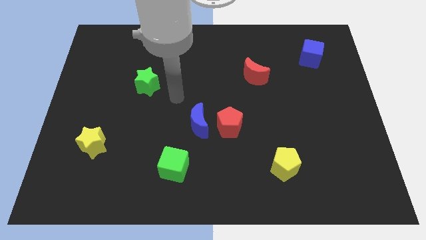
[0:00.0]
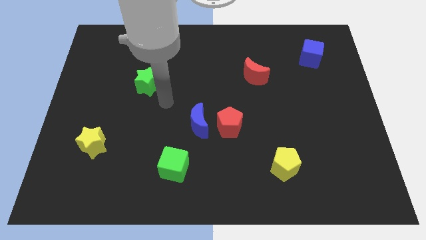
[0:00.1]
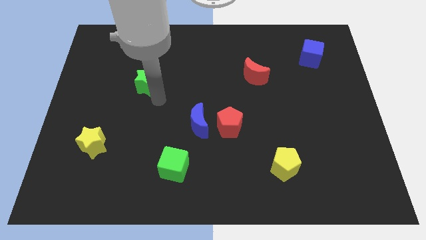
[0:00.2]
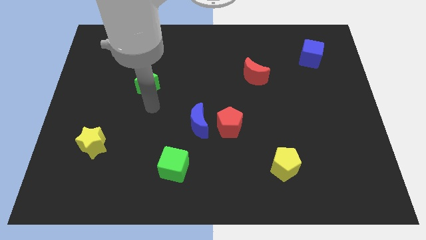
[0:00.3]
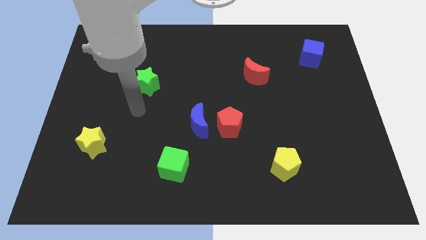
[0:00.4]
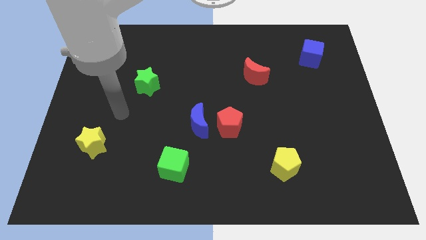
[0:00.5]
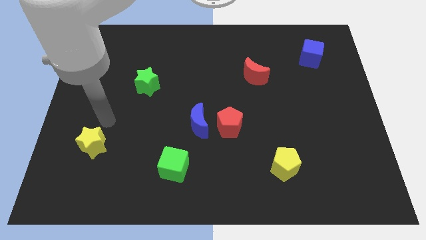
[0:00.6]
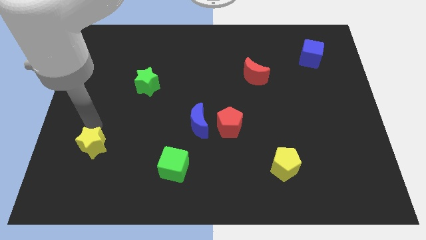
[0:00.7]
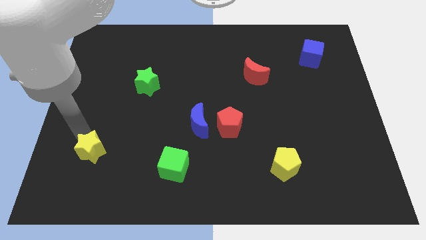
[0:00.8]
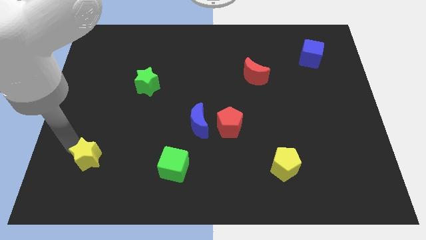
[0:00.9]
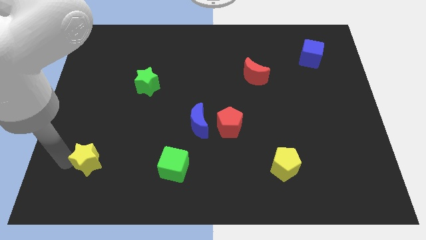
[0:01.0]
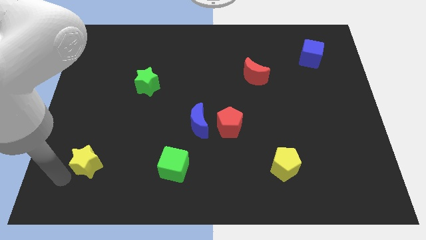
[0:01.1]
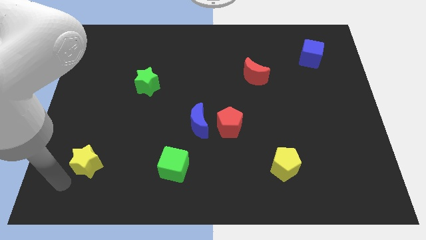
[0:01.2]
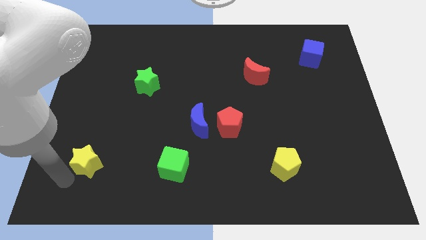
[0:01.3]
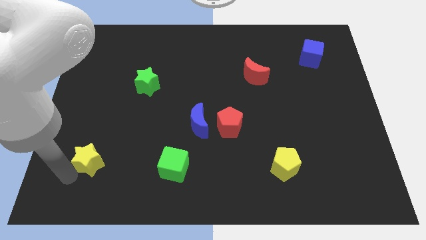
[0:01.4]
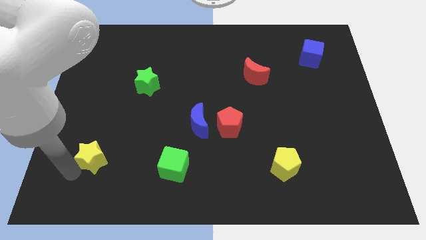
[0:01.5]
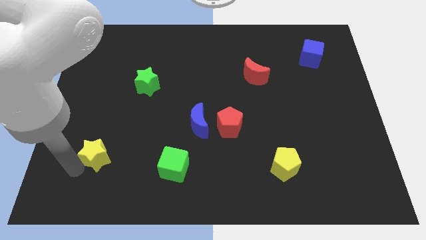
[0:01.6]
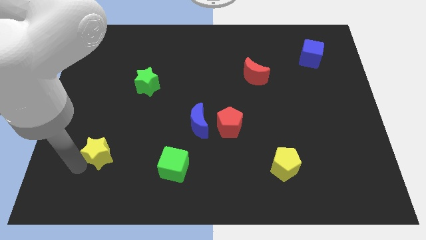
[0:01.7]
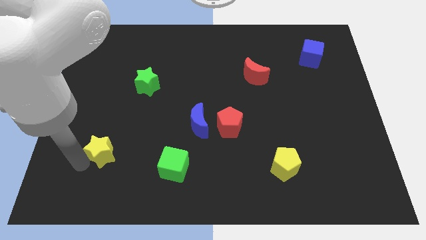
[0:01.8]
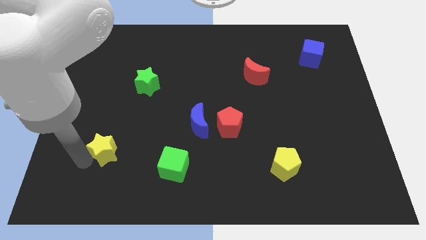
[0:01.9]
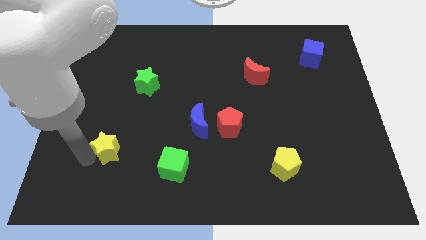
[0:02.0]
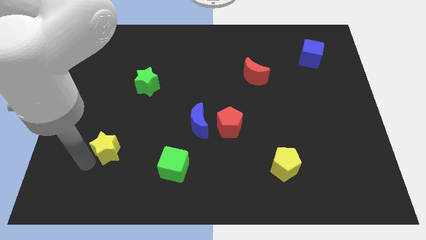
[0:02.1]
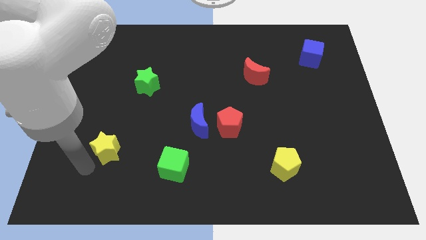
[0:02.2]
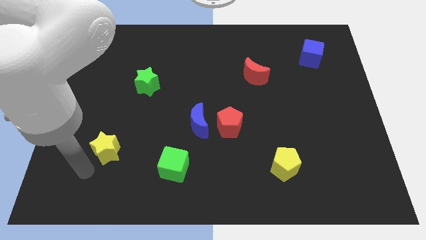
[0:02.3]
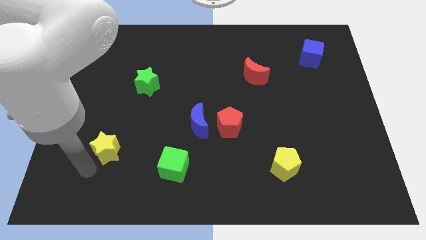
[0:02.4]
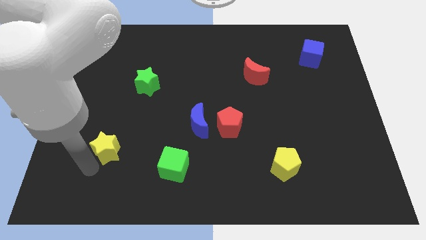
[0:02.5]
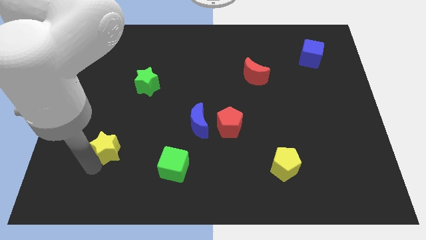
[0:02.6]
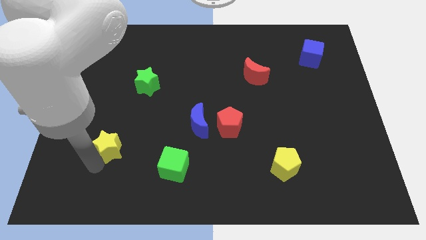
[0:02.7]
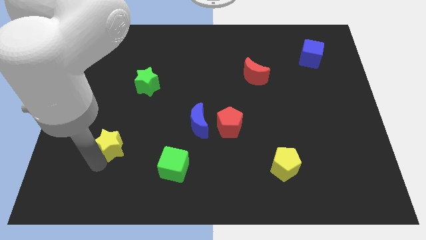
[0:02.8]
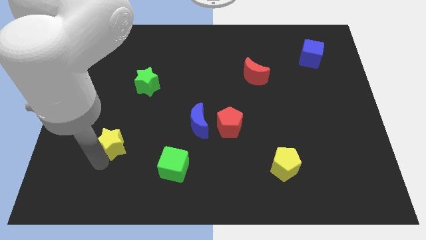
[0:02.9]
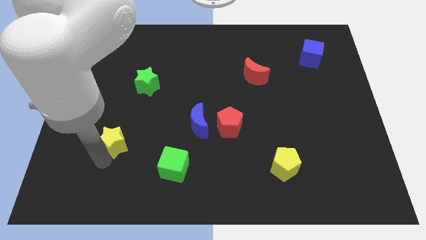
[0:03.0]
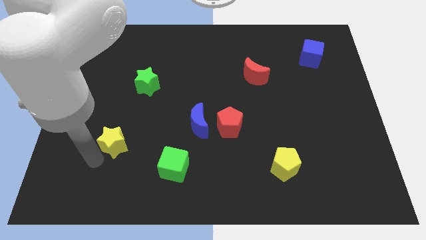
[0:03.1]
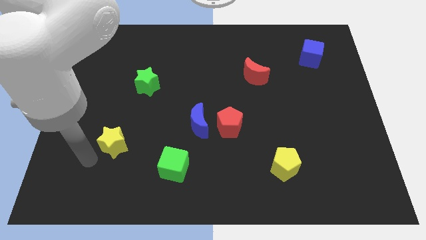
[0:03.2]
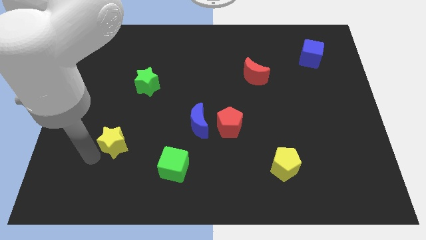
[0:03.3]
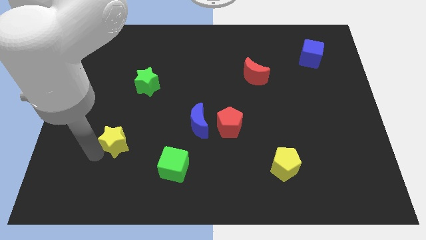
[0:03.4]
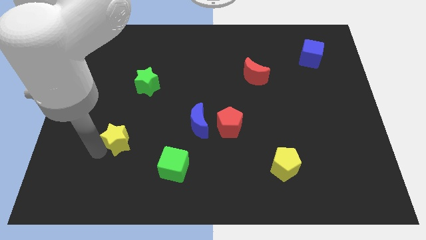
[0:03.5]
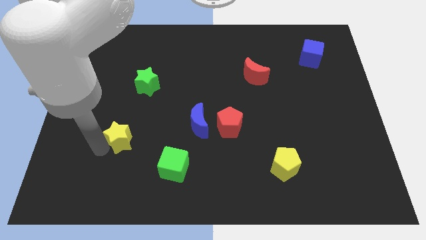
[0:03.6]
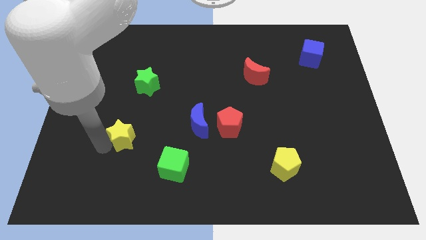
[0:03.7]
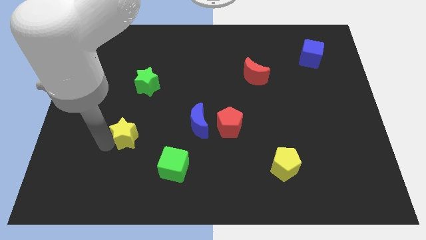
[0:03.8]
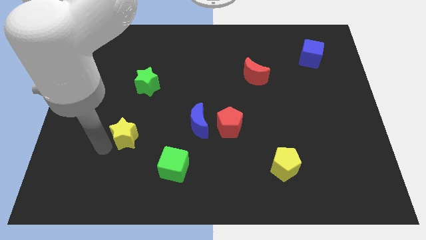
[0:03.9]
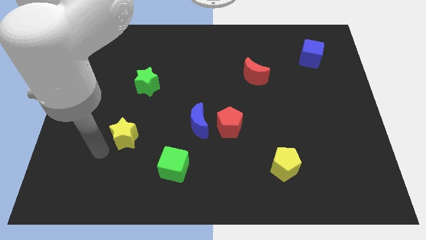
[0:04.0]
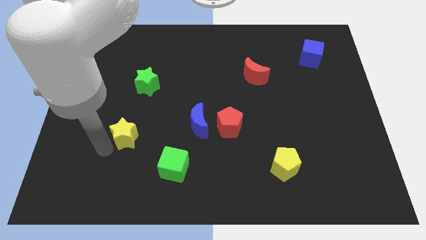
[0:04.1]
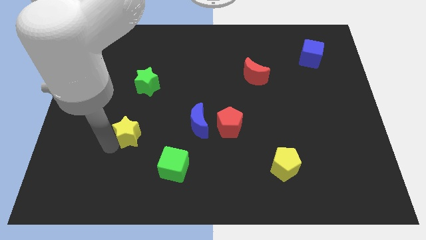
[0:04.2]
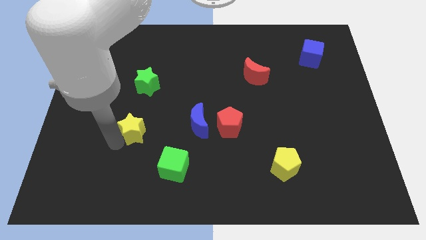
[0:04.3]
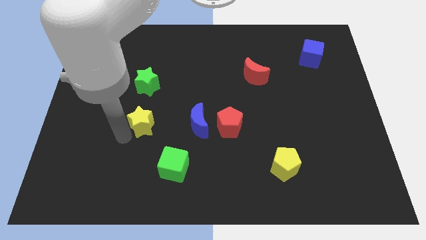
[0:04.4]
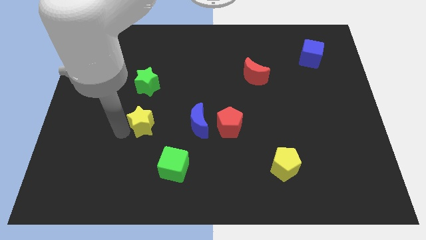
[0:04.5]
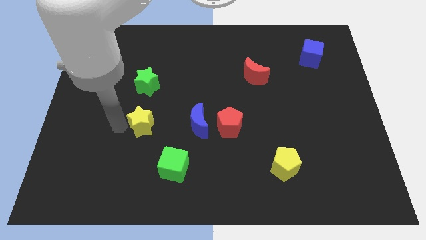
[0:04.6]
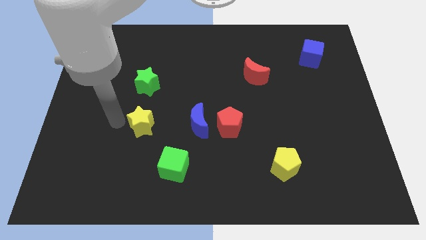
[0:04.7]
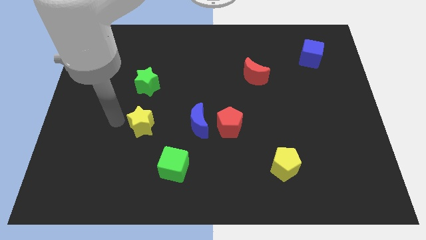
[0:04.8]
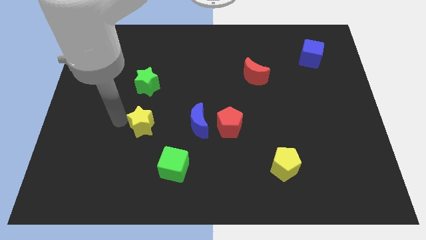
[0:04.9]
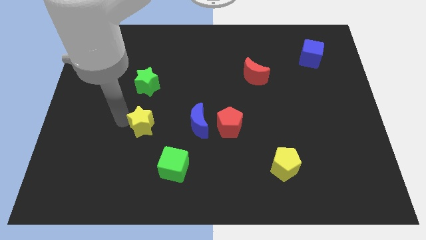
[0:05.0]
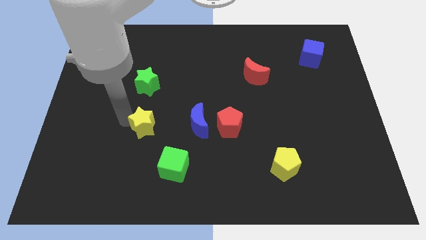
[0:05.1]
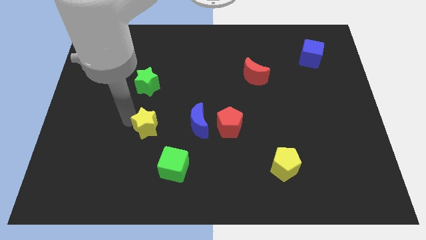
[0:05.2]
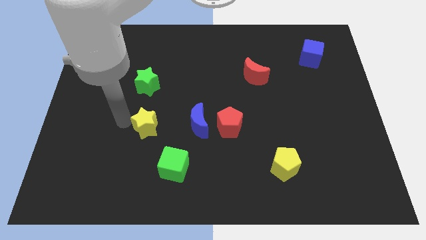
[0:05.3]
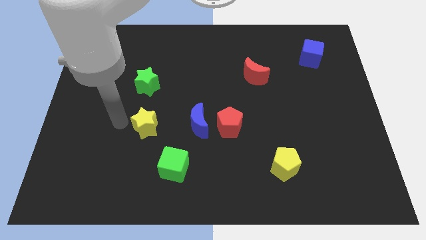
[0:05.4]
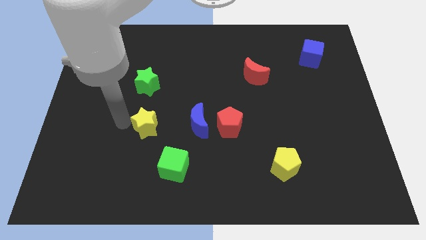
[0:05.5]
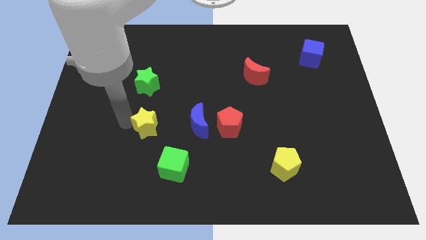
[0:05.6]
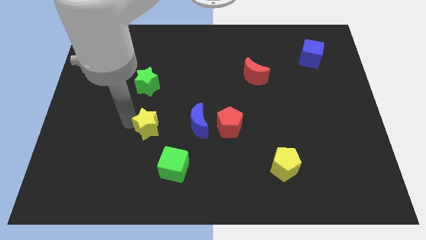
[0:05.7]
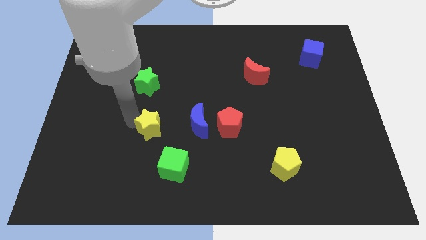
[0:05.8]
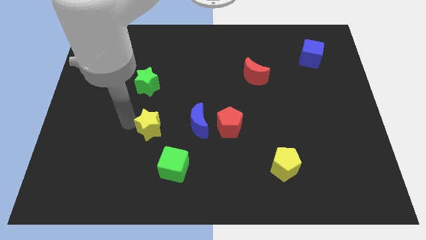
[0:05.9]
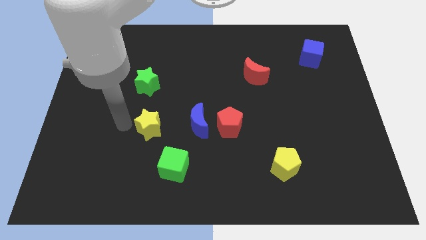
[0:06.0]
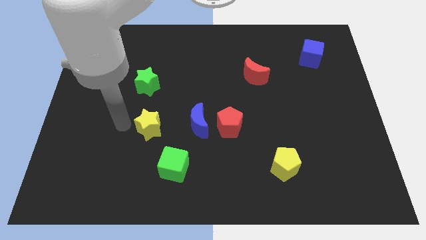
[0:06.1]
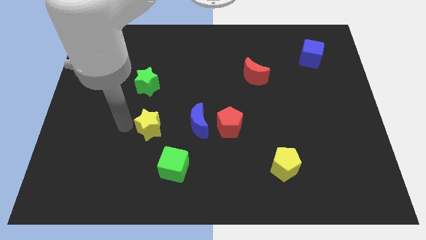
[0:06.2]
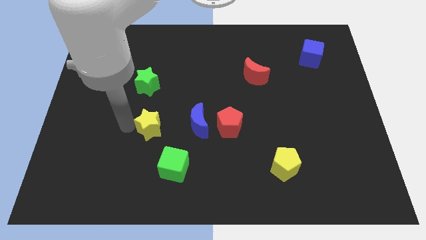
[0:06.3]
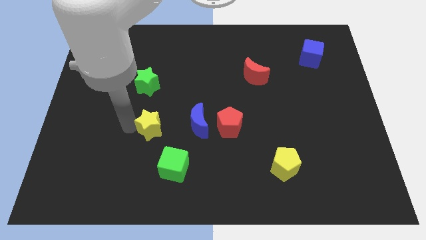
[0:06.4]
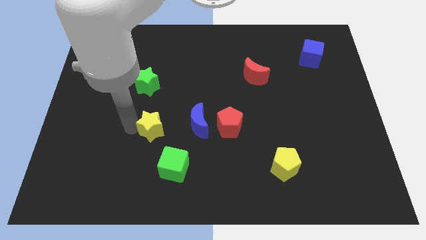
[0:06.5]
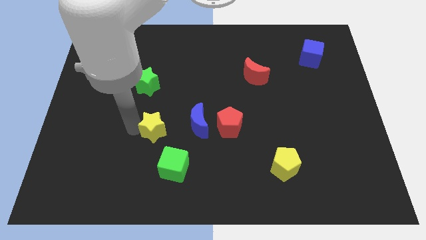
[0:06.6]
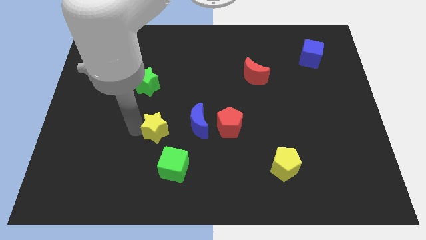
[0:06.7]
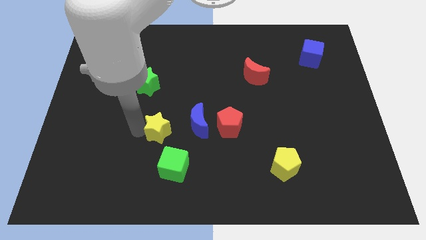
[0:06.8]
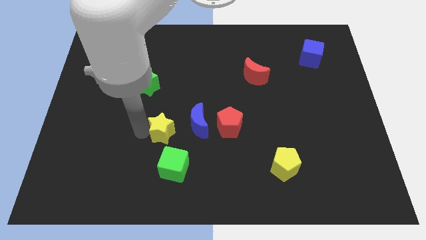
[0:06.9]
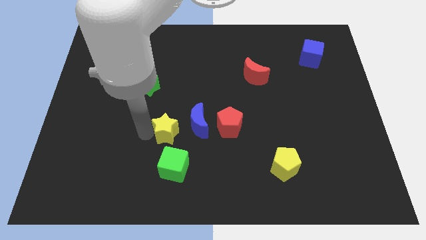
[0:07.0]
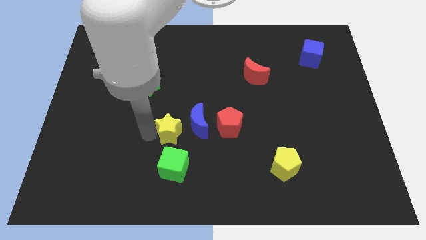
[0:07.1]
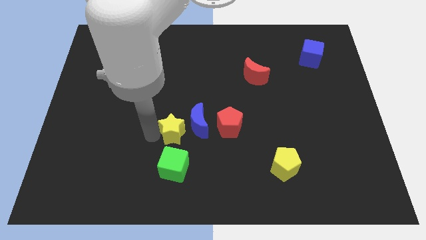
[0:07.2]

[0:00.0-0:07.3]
put the yellow star to the blue moon
